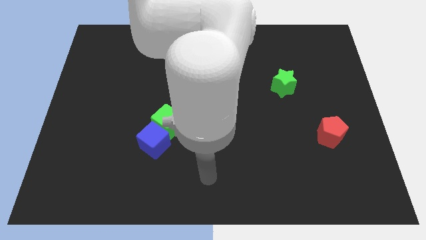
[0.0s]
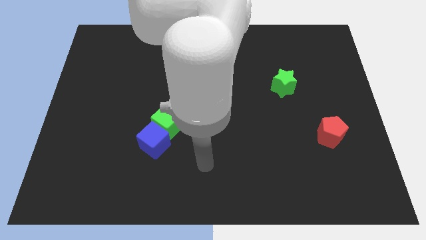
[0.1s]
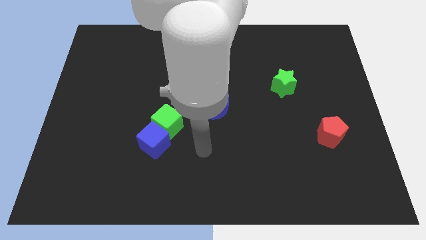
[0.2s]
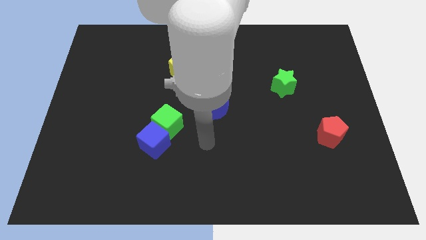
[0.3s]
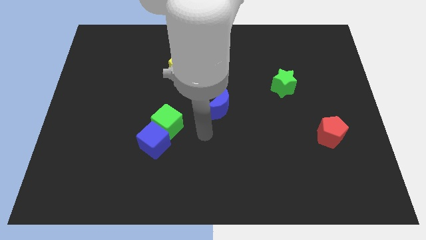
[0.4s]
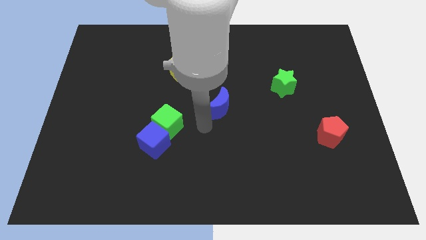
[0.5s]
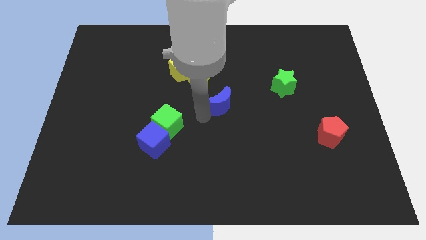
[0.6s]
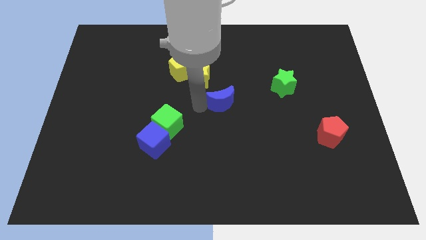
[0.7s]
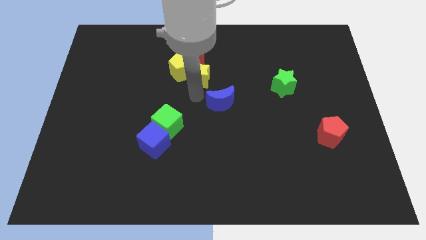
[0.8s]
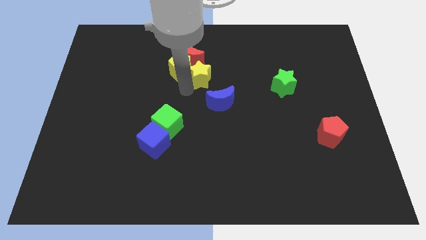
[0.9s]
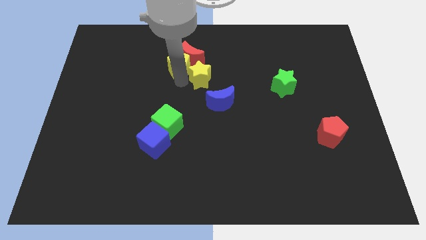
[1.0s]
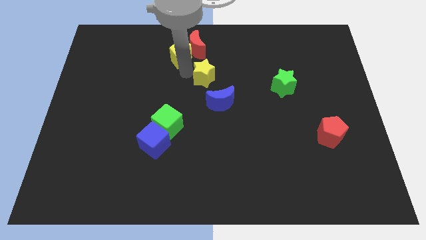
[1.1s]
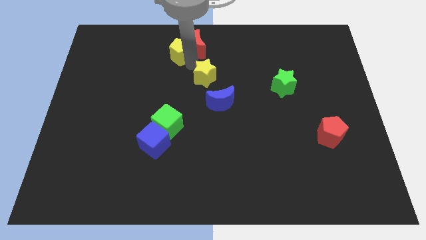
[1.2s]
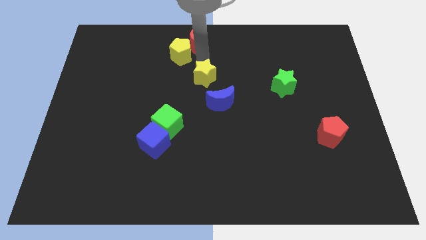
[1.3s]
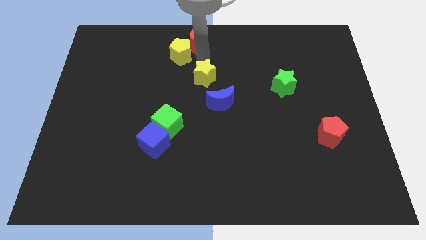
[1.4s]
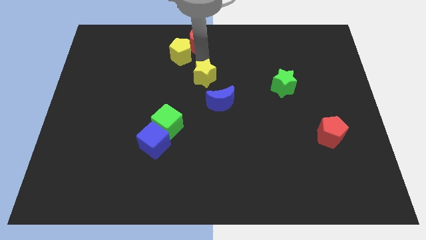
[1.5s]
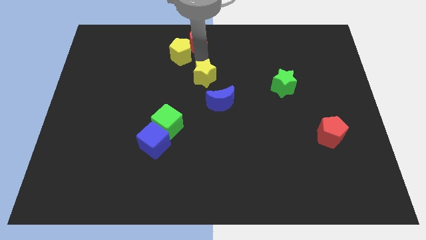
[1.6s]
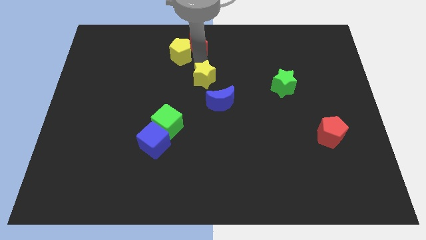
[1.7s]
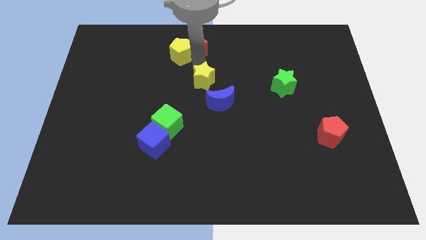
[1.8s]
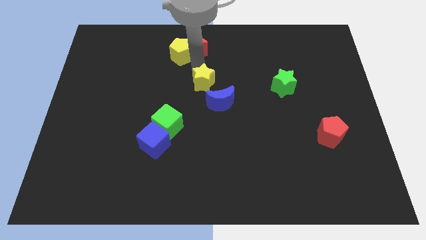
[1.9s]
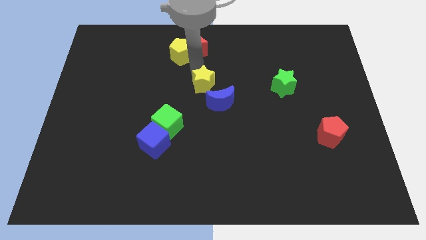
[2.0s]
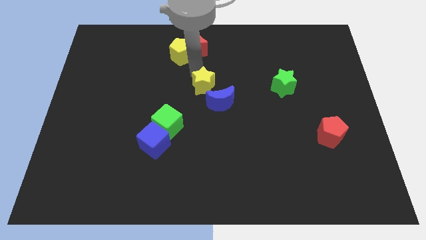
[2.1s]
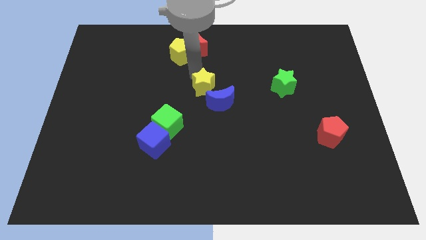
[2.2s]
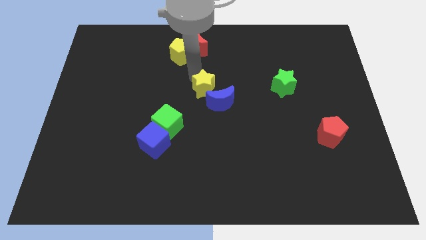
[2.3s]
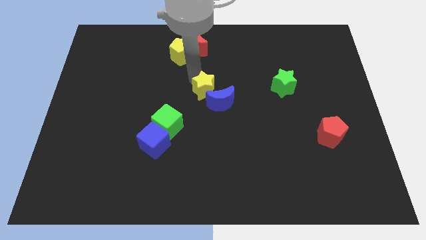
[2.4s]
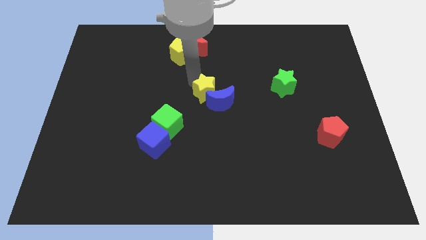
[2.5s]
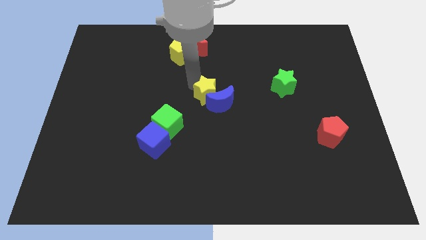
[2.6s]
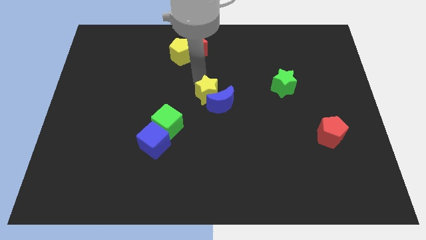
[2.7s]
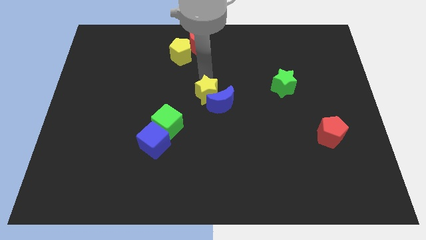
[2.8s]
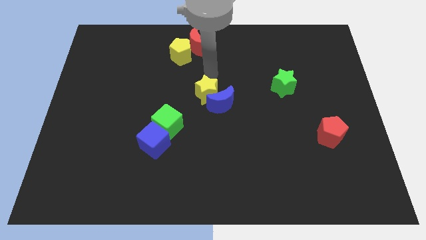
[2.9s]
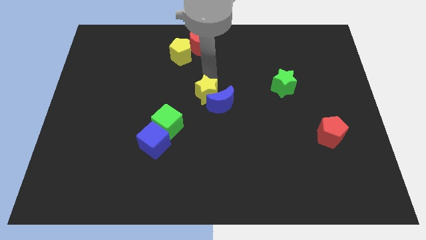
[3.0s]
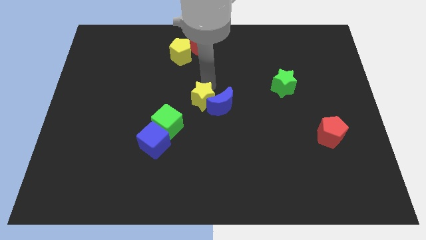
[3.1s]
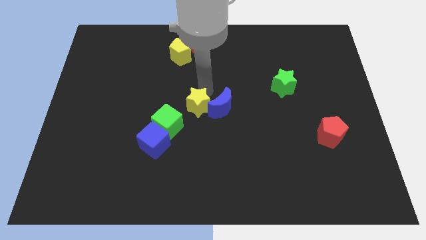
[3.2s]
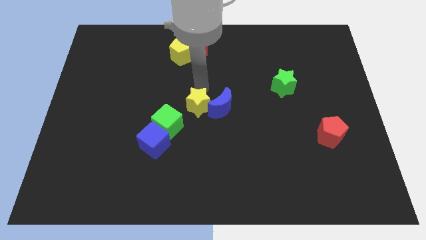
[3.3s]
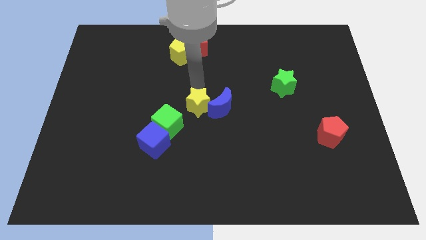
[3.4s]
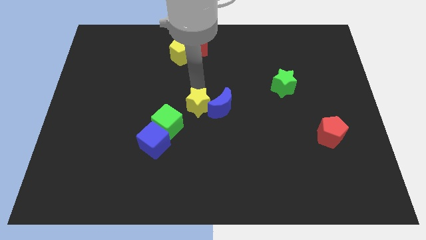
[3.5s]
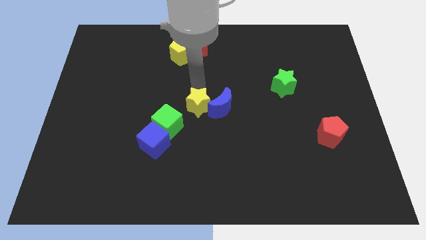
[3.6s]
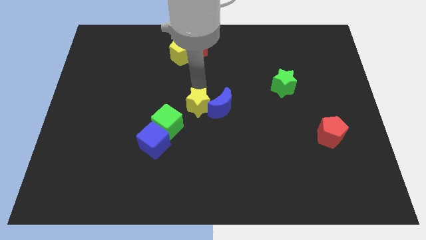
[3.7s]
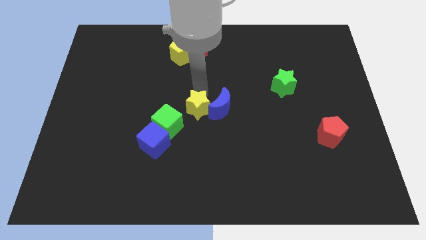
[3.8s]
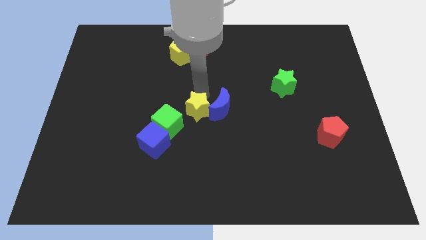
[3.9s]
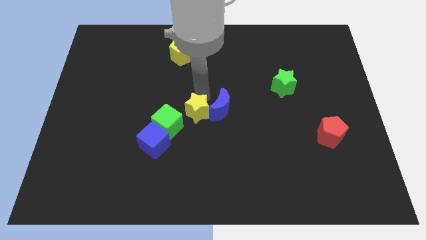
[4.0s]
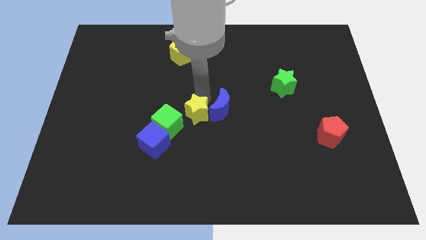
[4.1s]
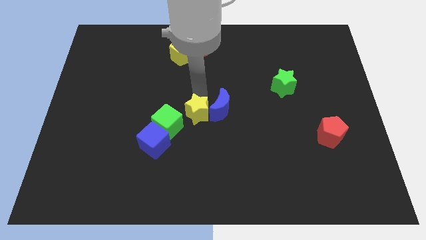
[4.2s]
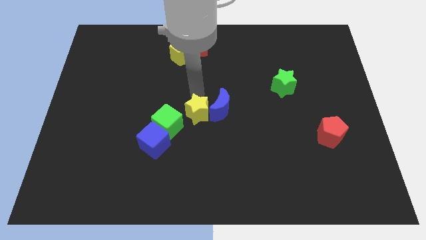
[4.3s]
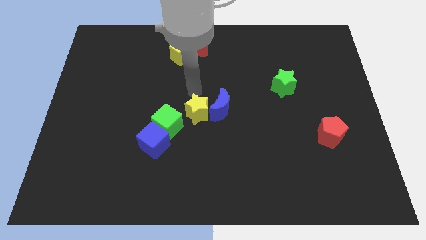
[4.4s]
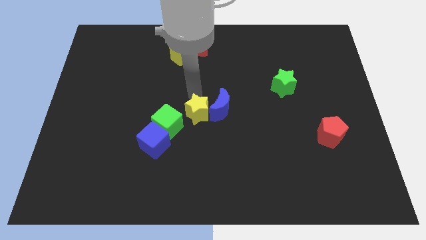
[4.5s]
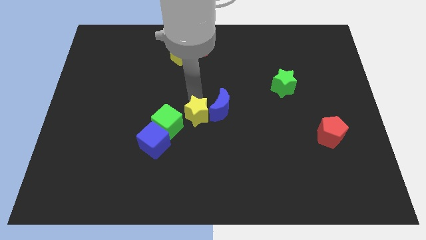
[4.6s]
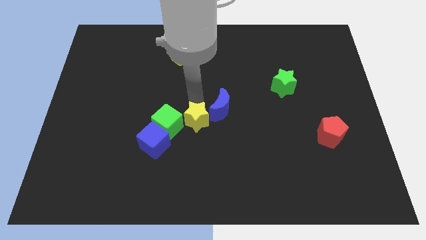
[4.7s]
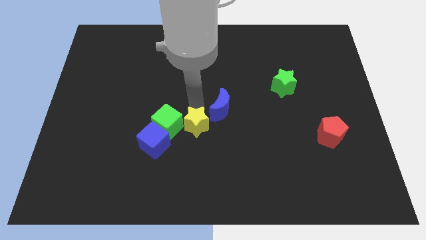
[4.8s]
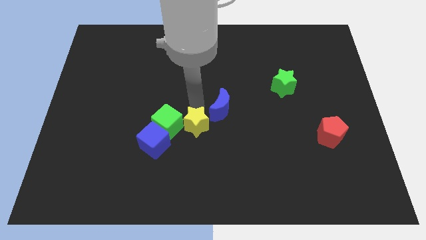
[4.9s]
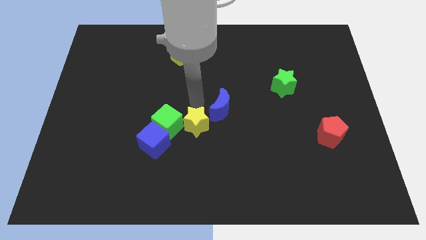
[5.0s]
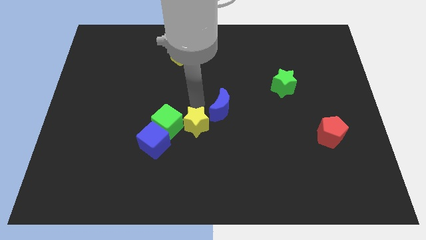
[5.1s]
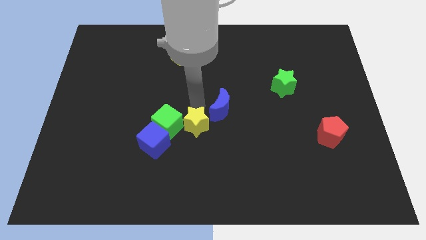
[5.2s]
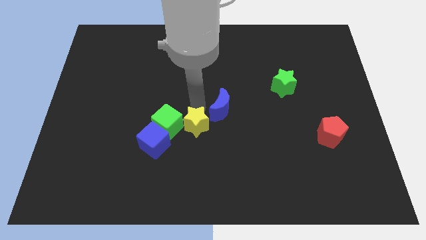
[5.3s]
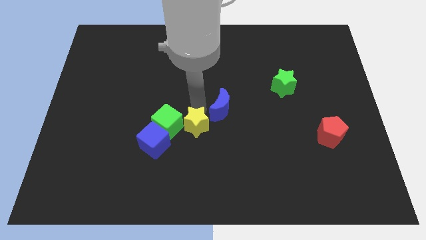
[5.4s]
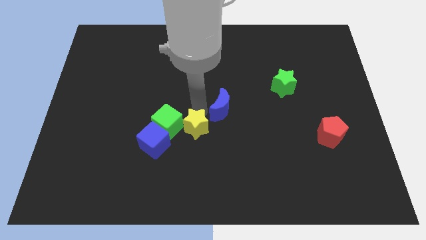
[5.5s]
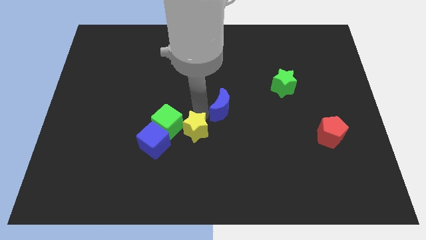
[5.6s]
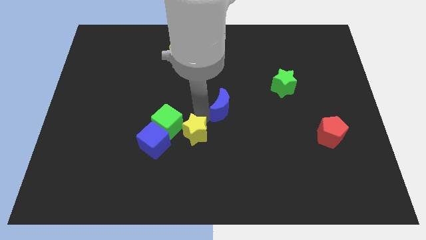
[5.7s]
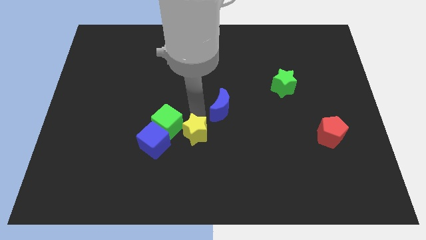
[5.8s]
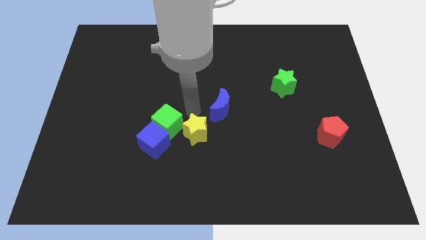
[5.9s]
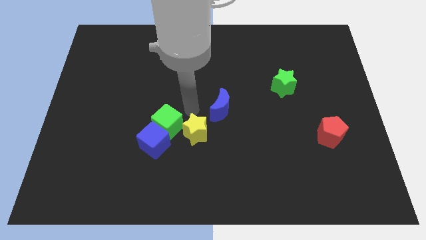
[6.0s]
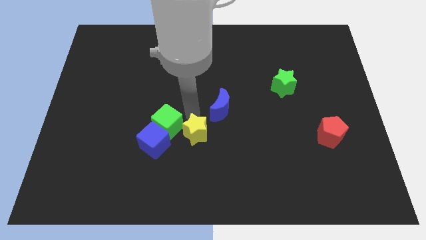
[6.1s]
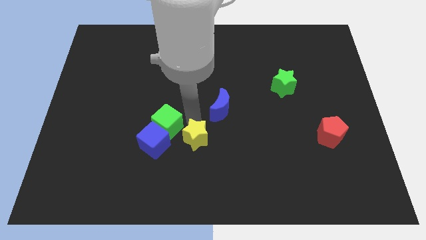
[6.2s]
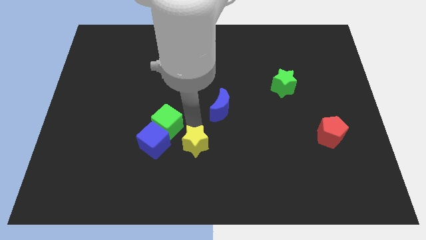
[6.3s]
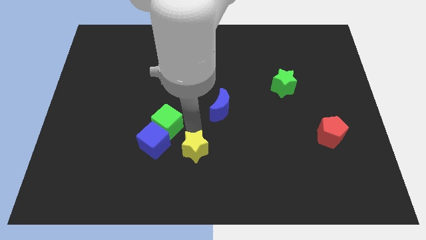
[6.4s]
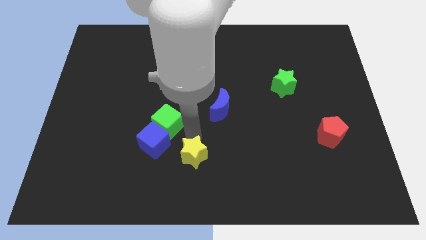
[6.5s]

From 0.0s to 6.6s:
put the yellow star to the bottom side

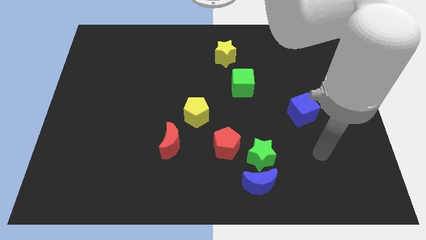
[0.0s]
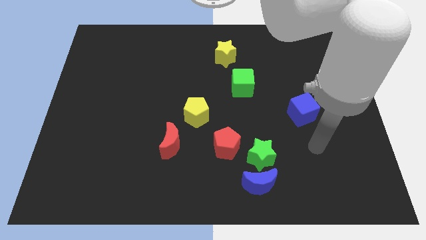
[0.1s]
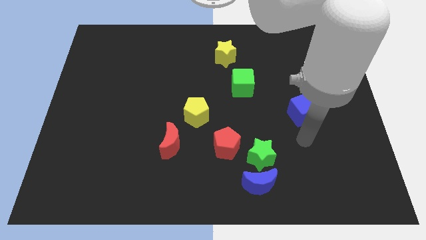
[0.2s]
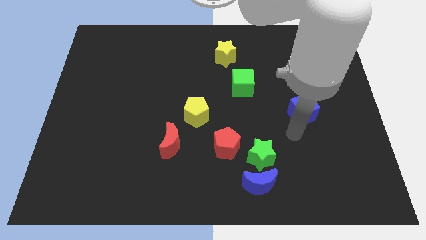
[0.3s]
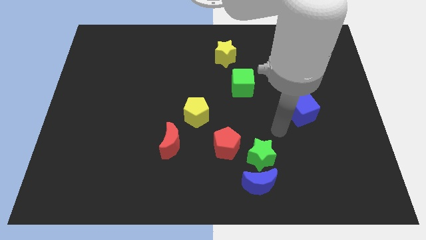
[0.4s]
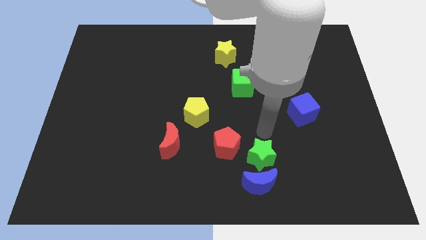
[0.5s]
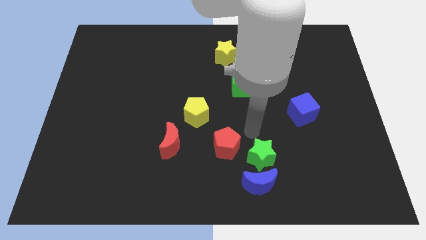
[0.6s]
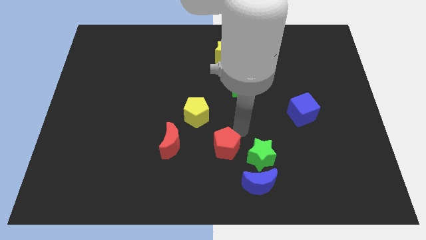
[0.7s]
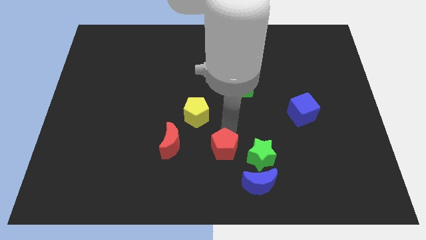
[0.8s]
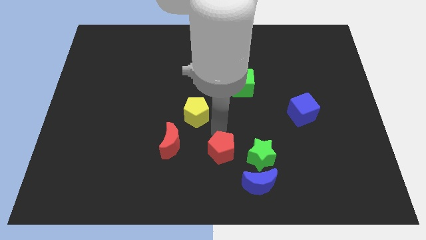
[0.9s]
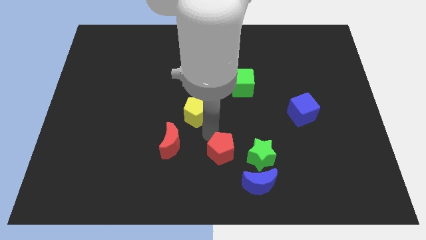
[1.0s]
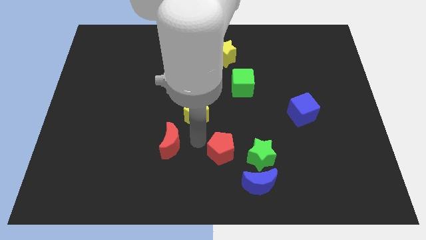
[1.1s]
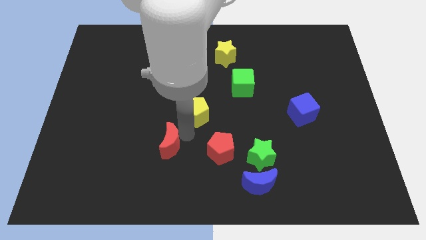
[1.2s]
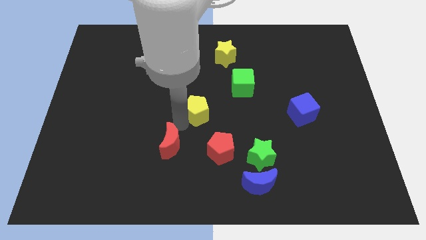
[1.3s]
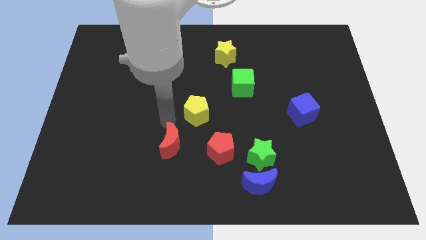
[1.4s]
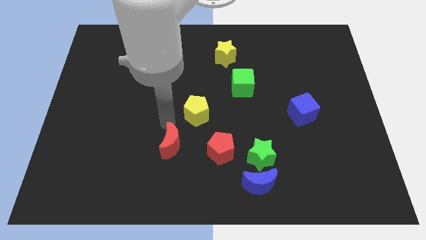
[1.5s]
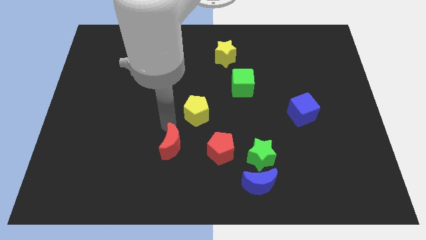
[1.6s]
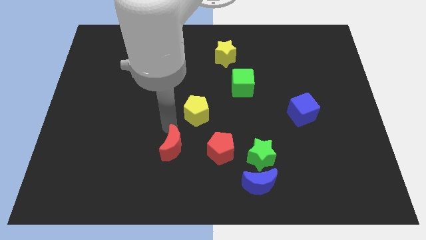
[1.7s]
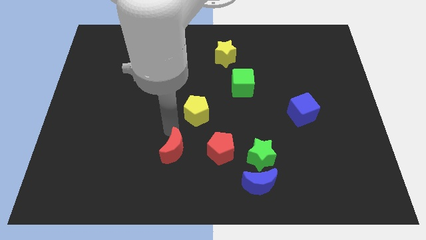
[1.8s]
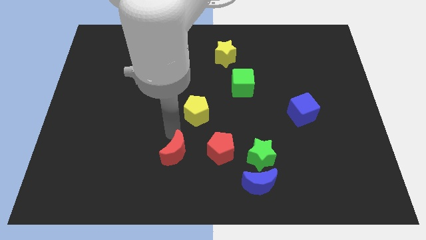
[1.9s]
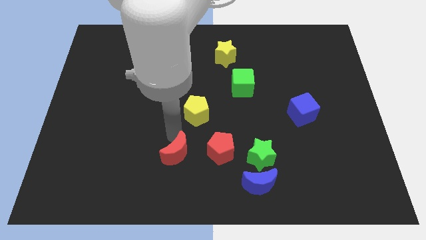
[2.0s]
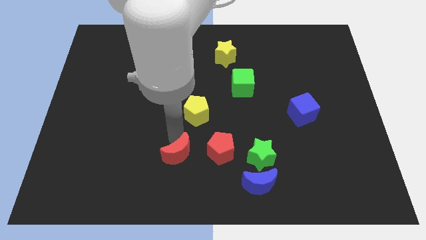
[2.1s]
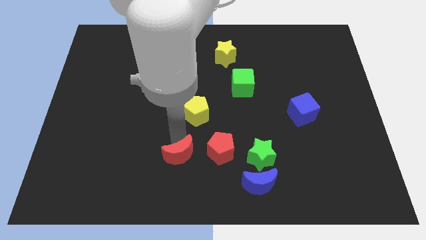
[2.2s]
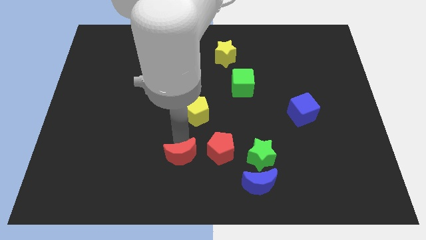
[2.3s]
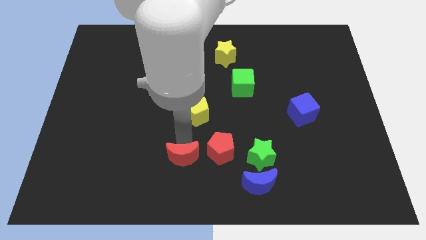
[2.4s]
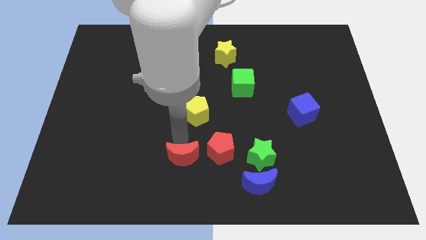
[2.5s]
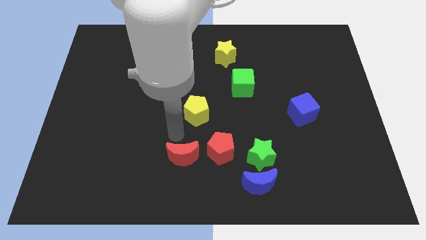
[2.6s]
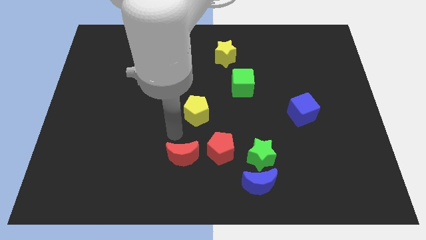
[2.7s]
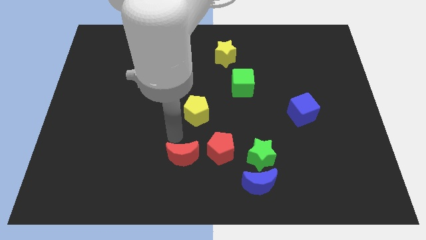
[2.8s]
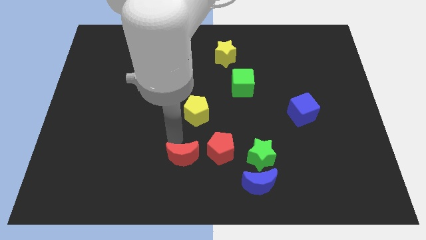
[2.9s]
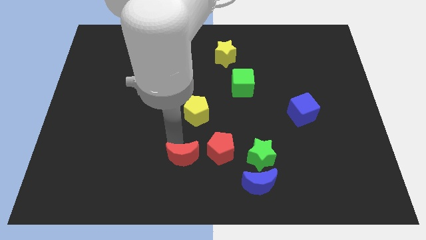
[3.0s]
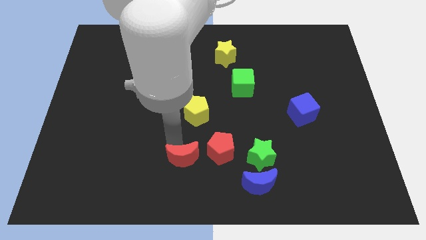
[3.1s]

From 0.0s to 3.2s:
put the red moon to the bottom side
